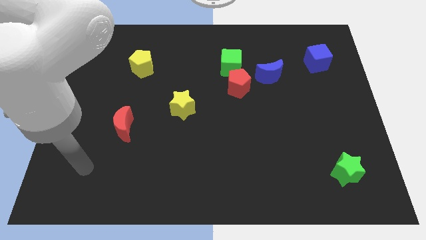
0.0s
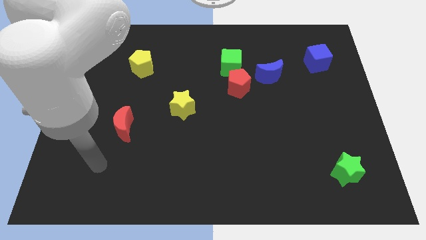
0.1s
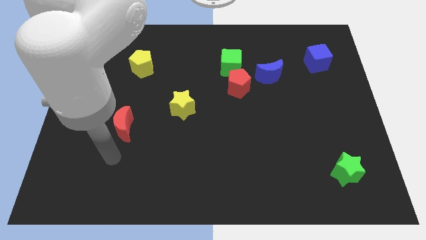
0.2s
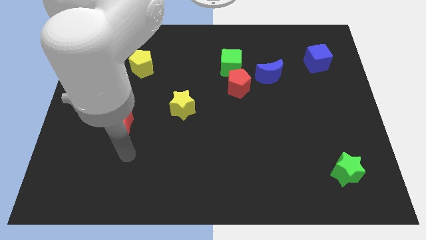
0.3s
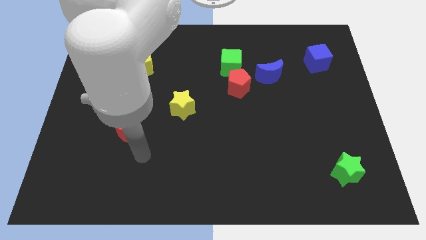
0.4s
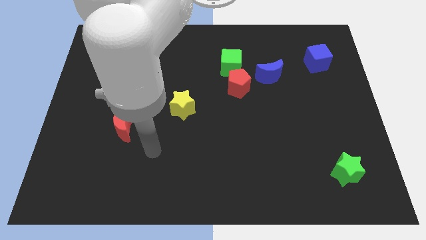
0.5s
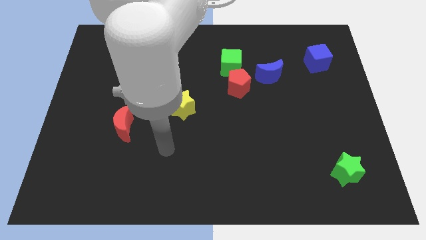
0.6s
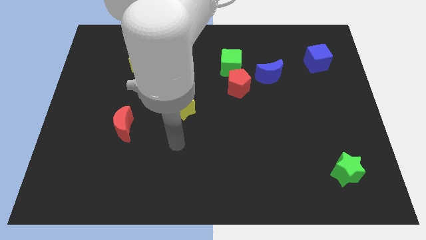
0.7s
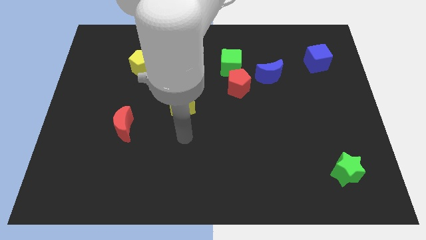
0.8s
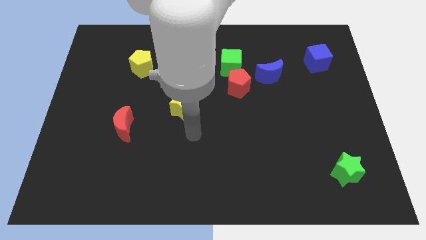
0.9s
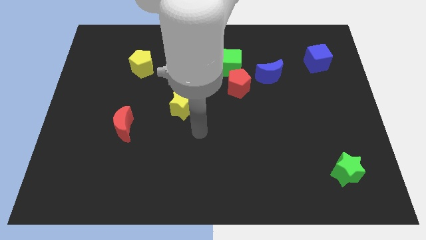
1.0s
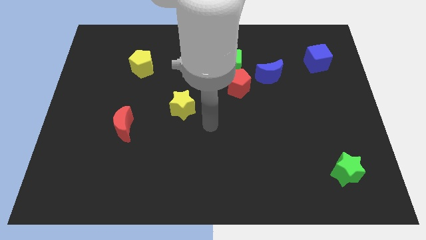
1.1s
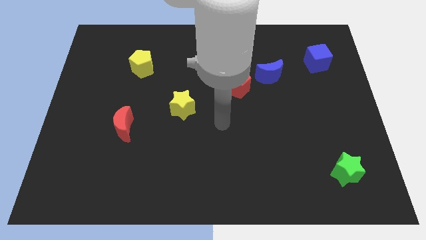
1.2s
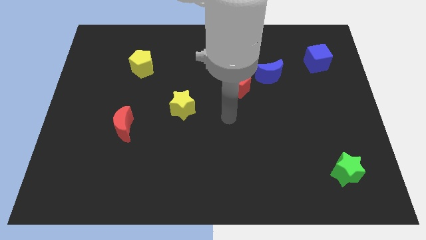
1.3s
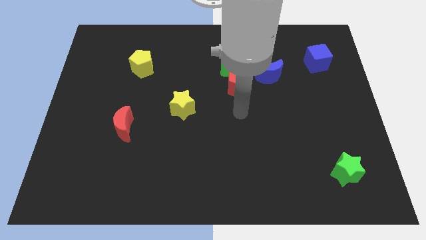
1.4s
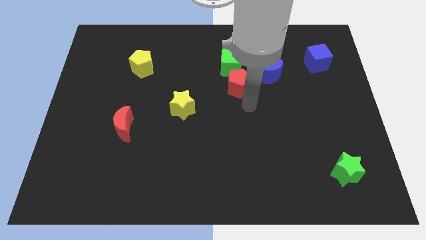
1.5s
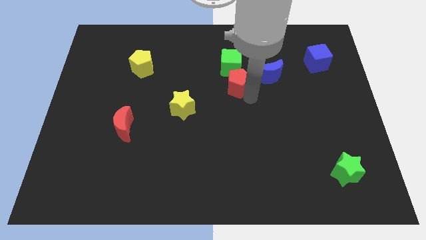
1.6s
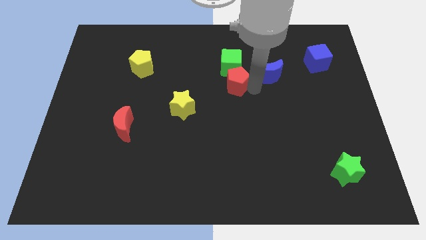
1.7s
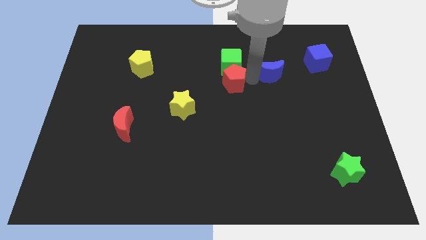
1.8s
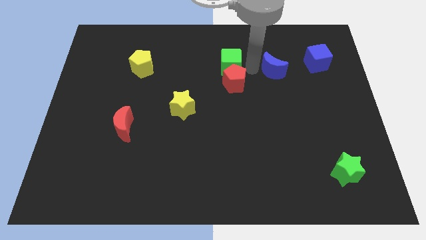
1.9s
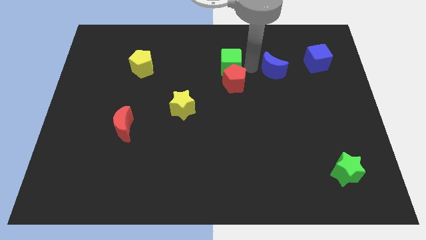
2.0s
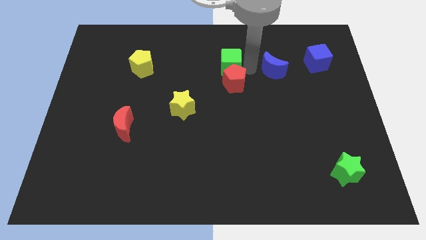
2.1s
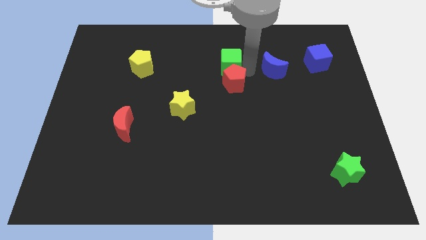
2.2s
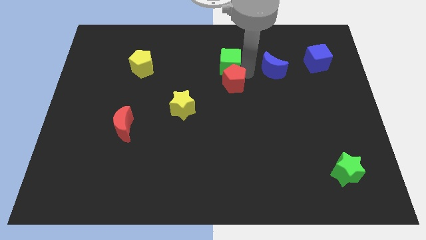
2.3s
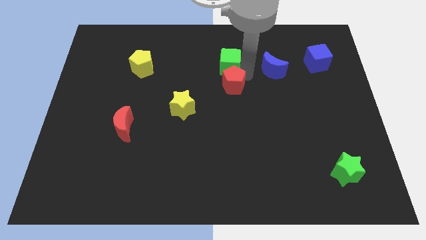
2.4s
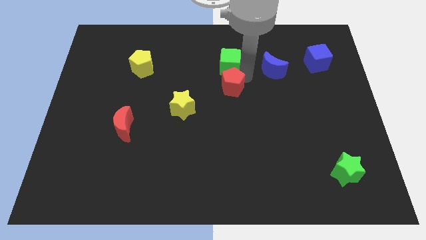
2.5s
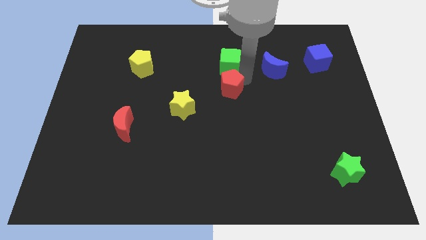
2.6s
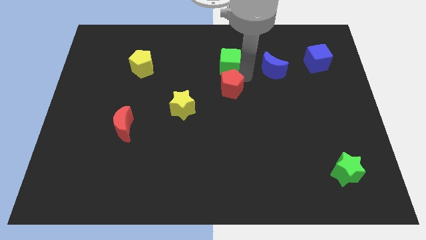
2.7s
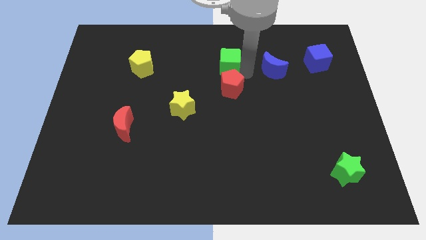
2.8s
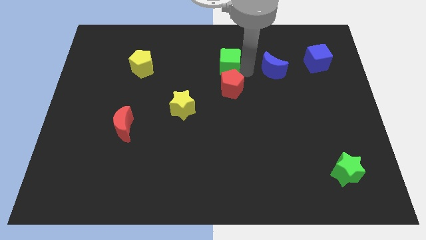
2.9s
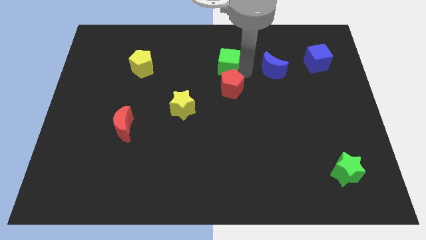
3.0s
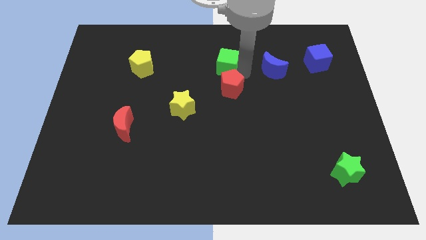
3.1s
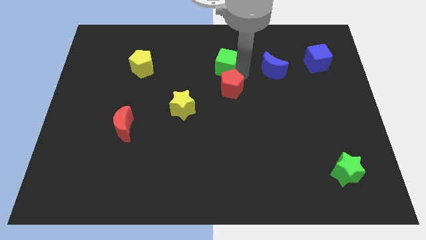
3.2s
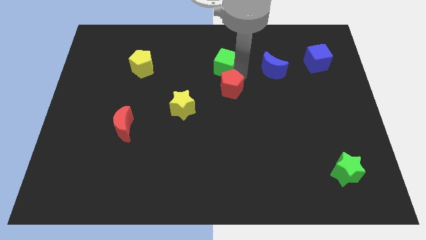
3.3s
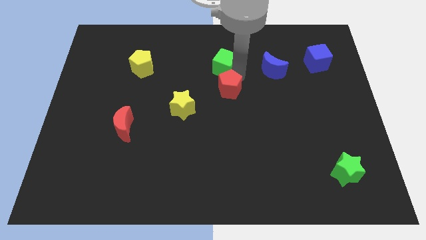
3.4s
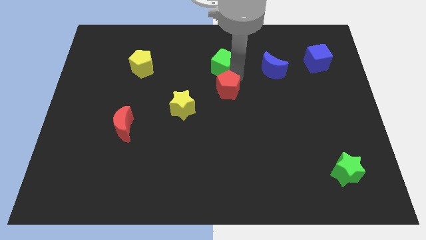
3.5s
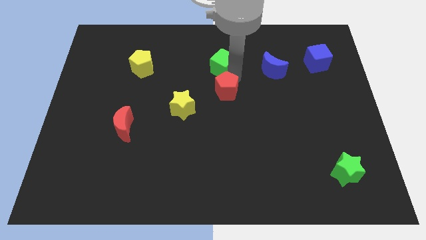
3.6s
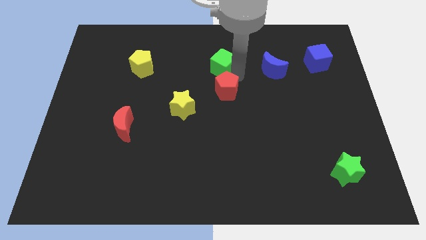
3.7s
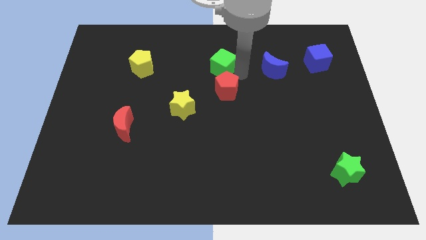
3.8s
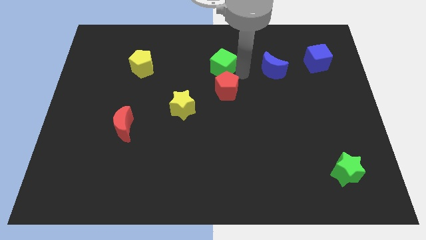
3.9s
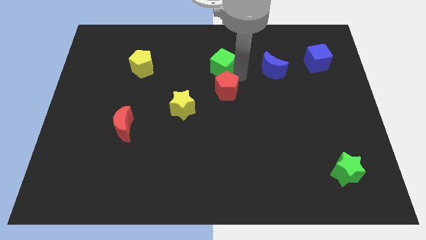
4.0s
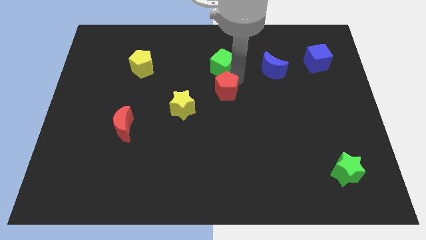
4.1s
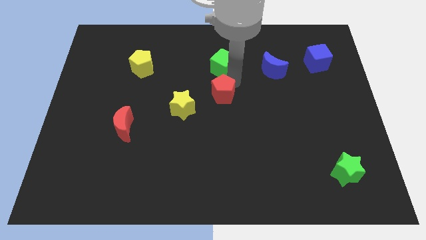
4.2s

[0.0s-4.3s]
separate the red pentagon from the green cube and blue moon

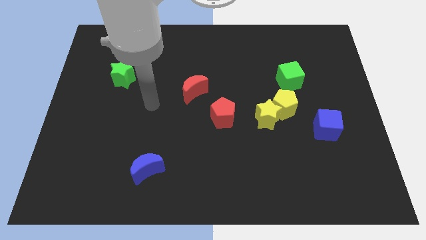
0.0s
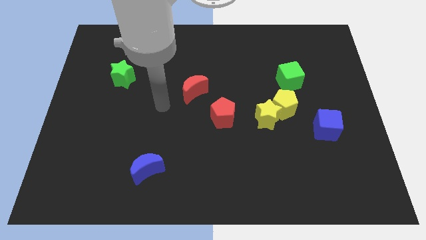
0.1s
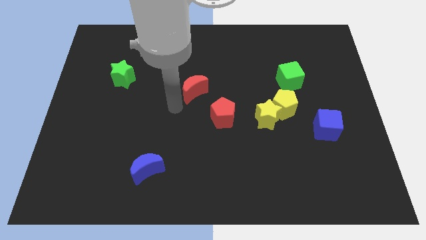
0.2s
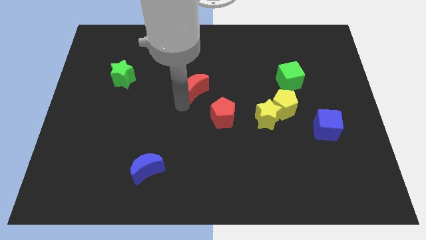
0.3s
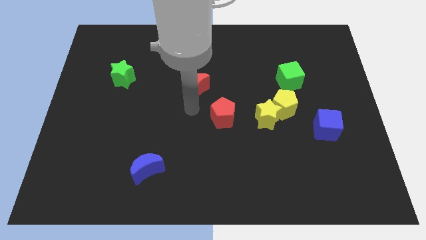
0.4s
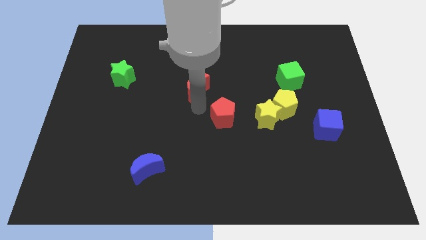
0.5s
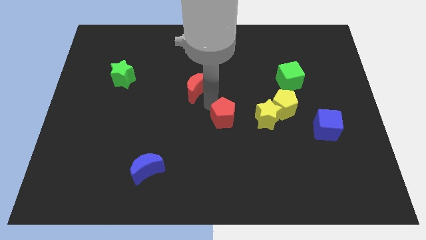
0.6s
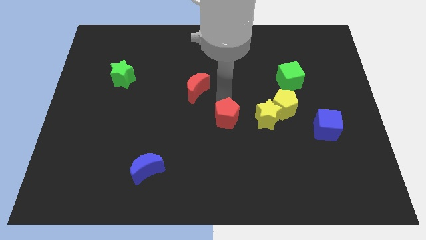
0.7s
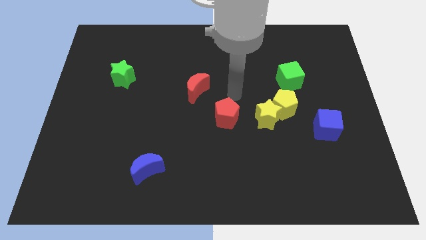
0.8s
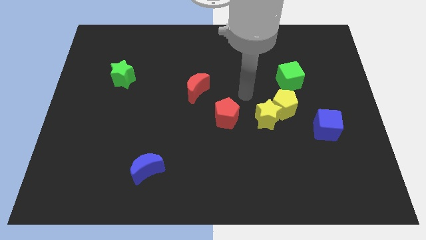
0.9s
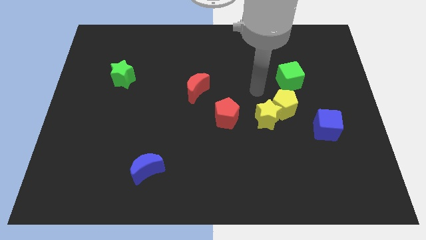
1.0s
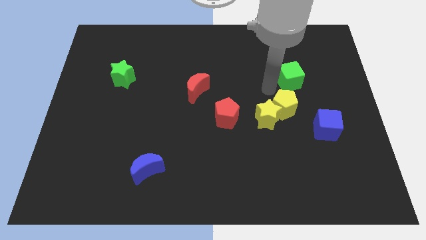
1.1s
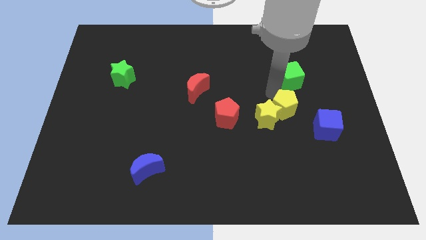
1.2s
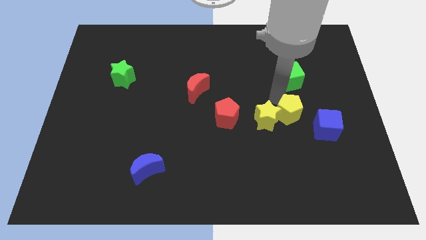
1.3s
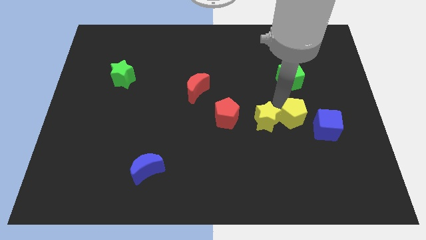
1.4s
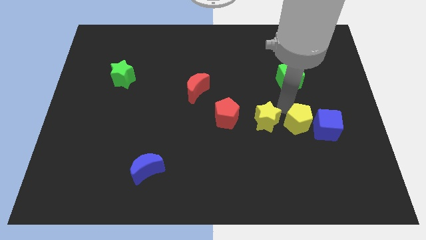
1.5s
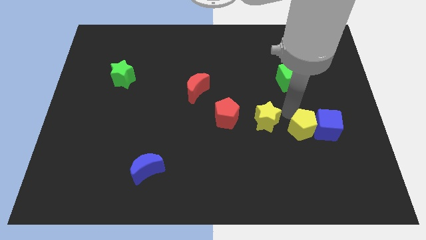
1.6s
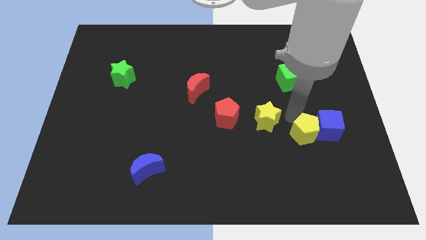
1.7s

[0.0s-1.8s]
pull the yellow pentagon apart from the yellow star and green cube

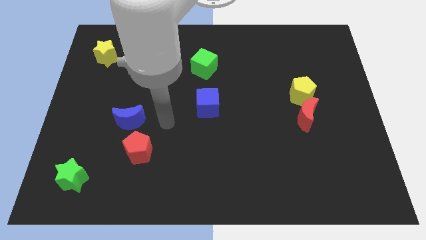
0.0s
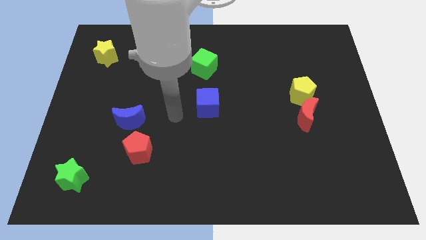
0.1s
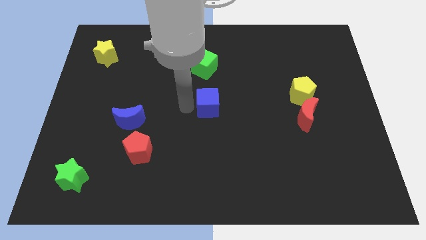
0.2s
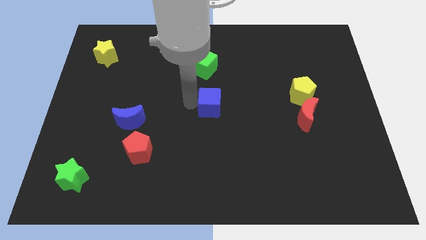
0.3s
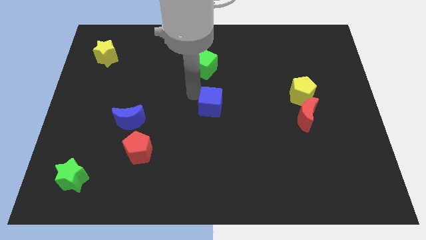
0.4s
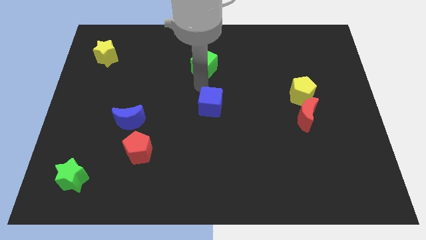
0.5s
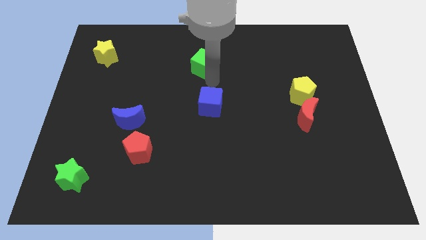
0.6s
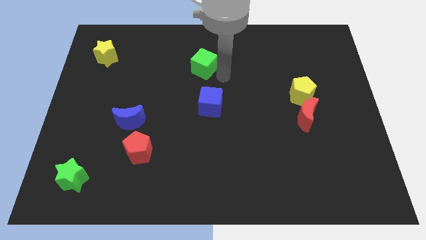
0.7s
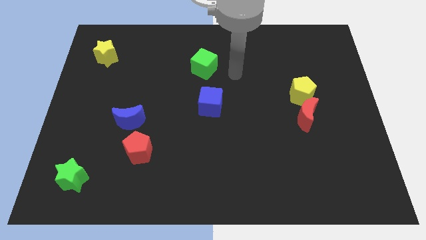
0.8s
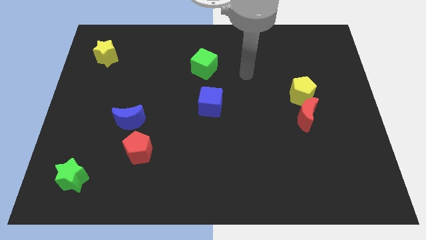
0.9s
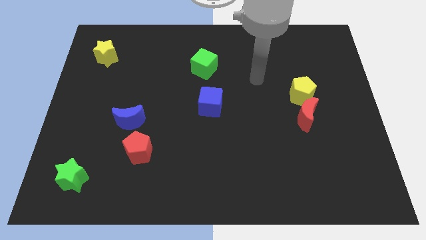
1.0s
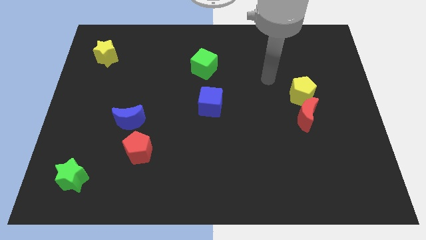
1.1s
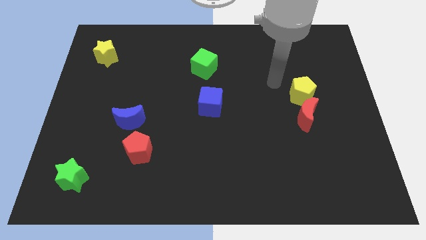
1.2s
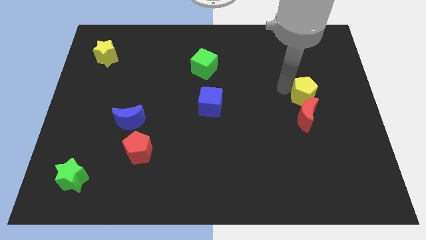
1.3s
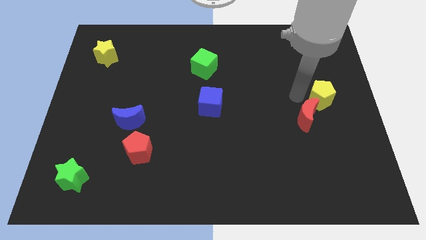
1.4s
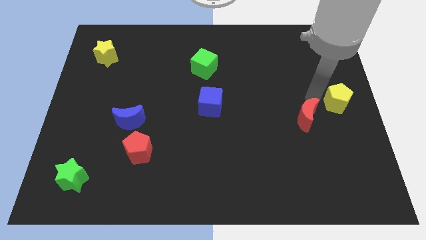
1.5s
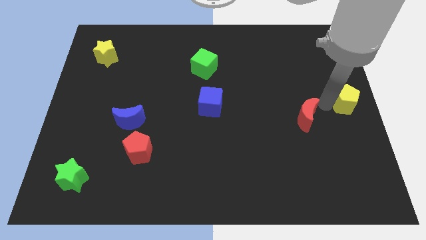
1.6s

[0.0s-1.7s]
move the red moon away from the yellow pentagon

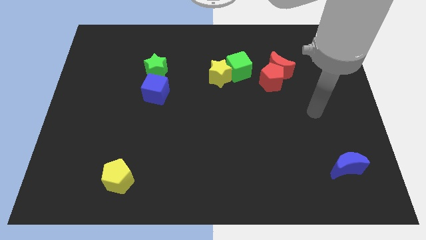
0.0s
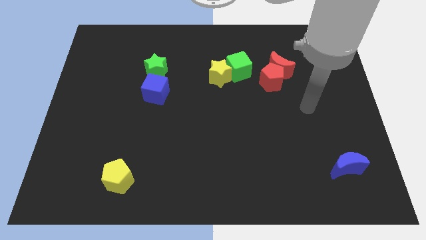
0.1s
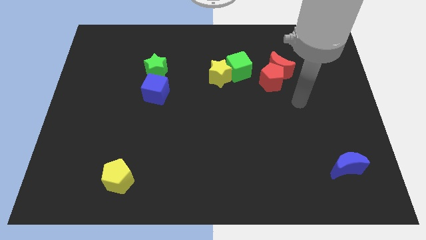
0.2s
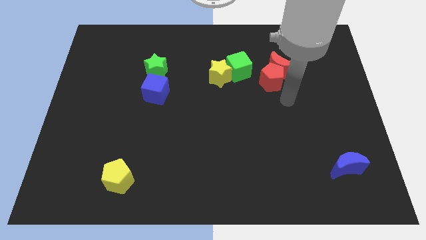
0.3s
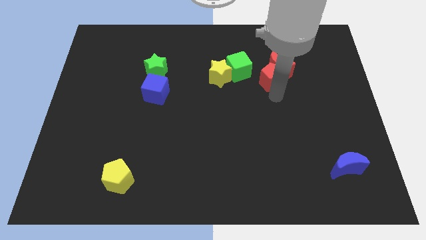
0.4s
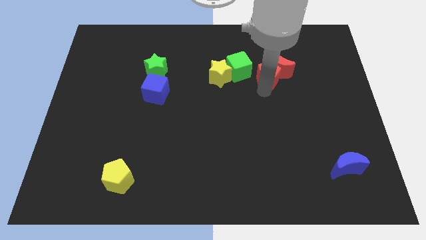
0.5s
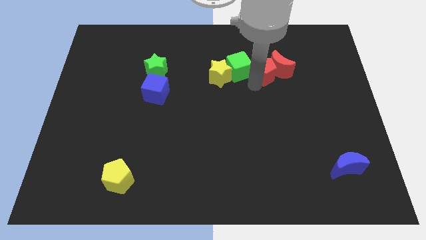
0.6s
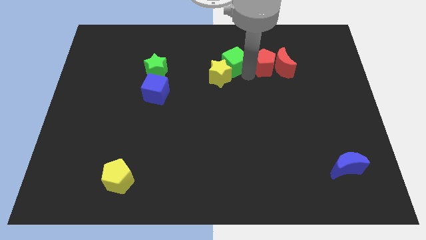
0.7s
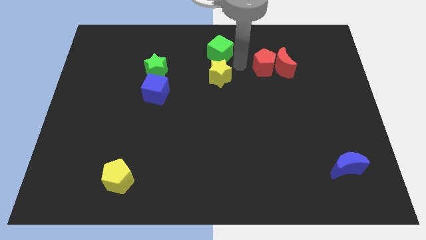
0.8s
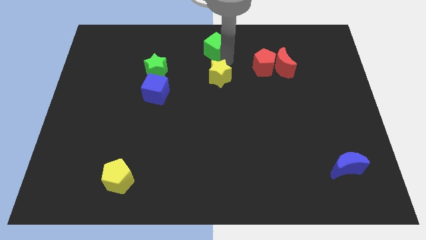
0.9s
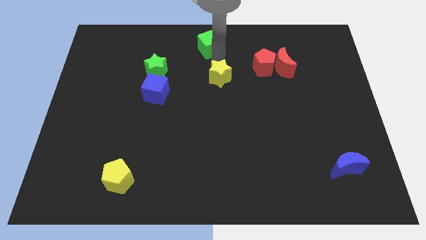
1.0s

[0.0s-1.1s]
separate the yellow star from the green cube

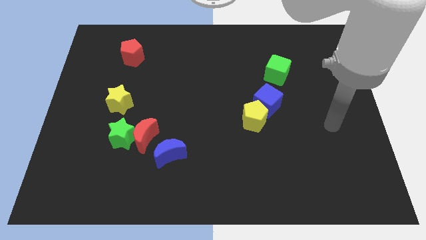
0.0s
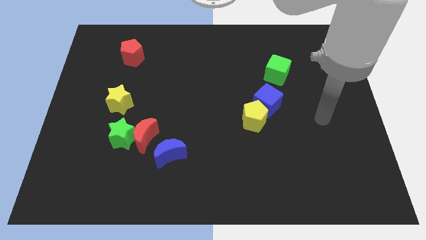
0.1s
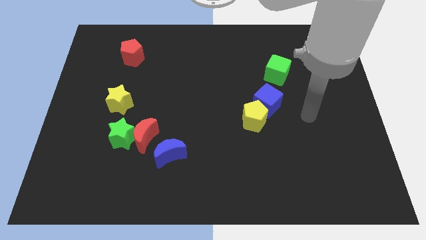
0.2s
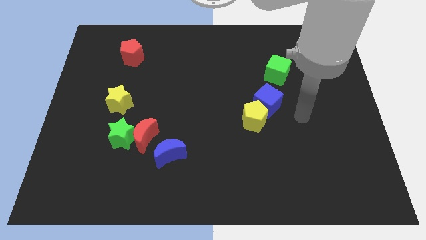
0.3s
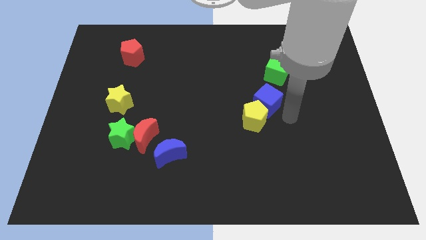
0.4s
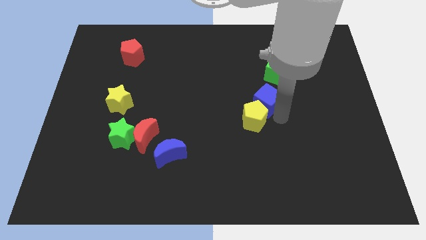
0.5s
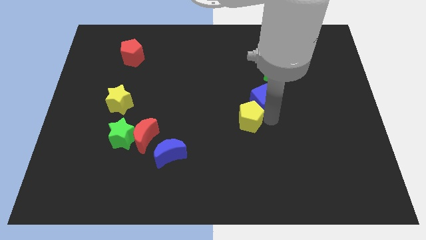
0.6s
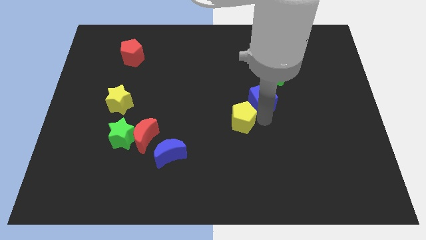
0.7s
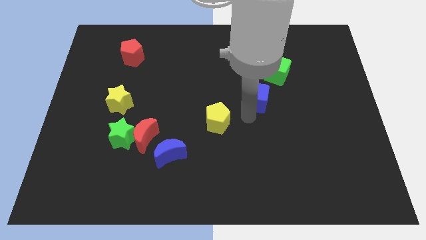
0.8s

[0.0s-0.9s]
move the blue cube away from the yellow pentagon
